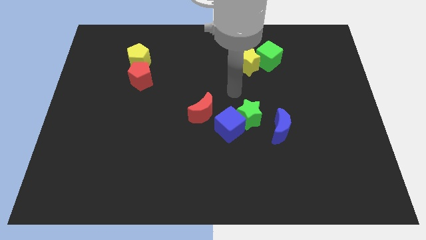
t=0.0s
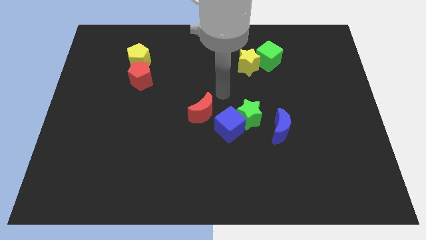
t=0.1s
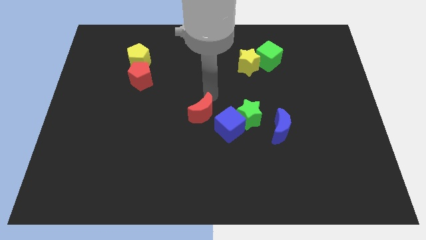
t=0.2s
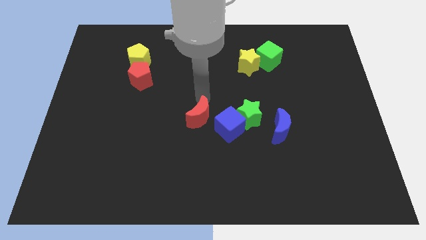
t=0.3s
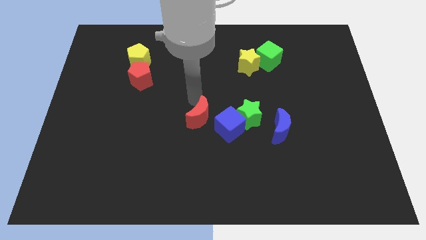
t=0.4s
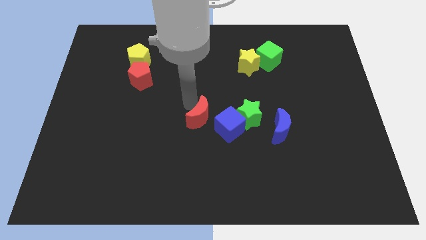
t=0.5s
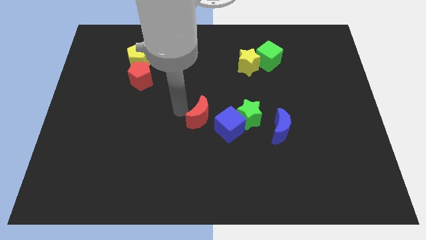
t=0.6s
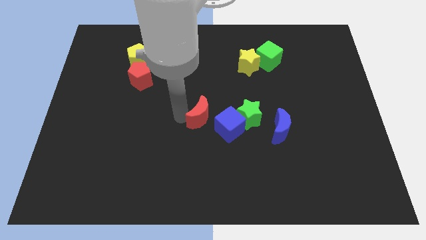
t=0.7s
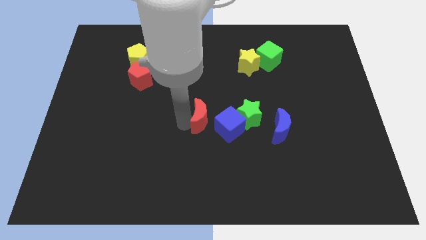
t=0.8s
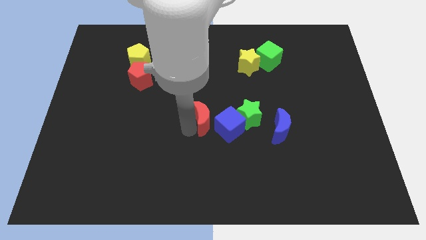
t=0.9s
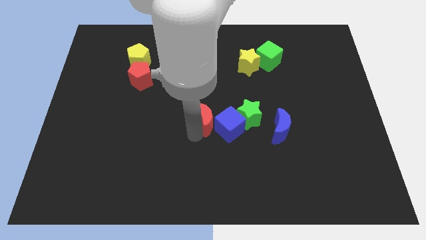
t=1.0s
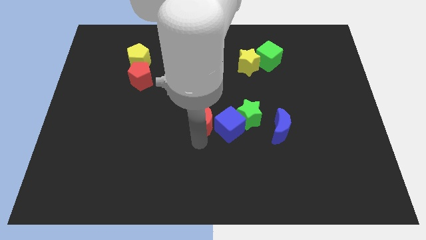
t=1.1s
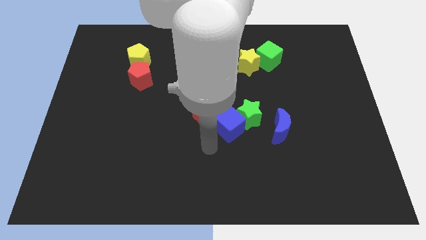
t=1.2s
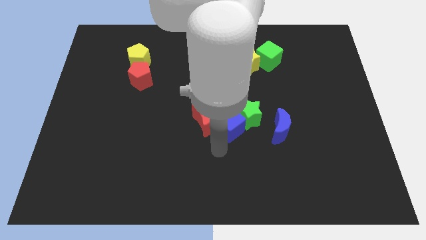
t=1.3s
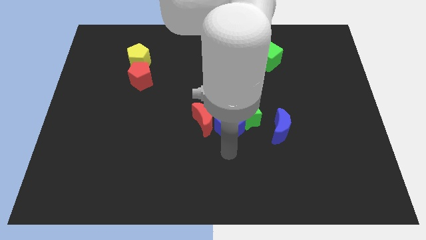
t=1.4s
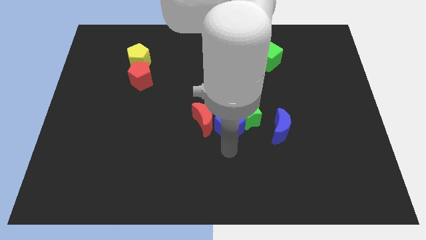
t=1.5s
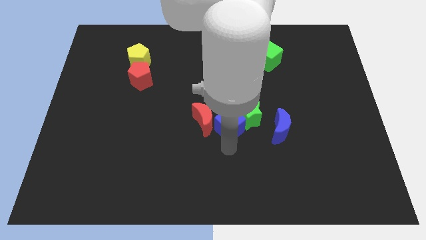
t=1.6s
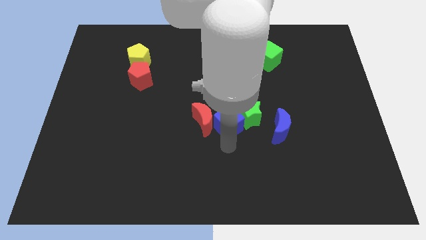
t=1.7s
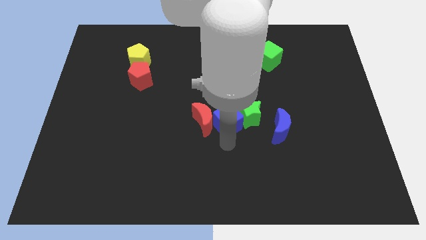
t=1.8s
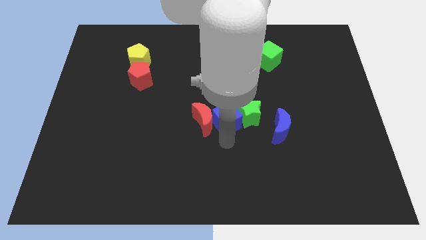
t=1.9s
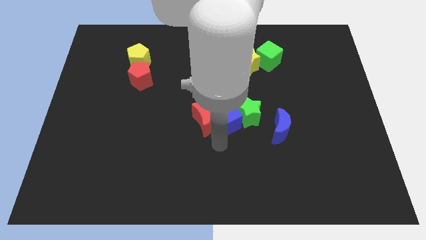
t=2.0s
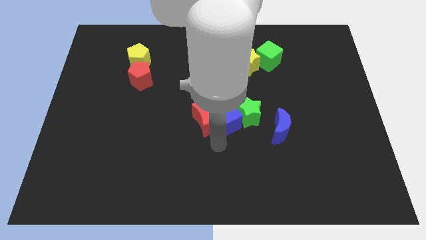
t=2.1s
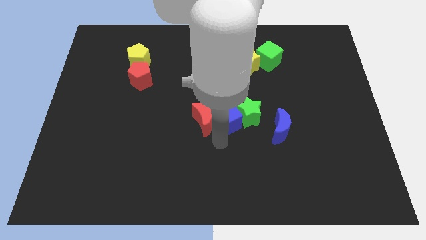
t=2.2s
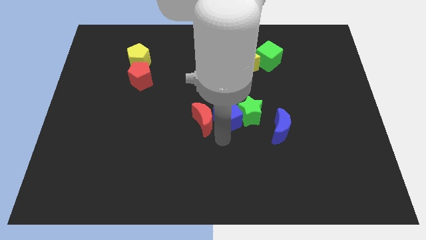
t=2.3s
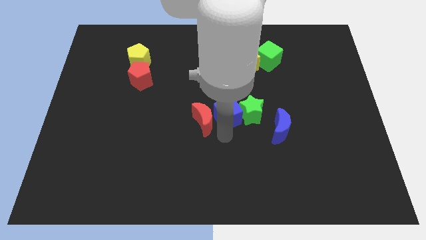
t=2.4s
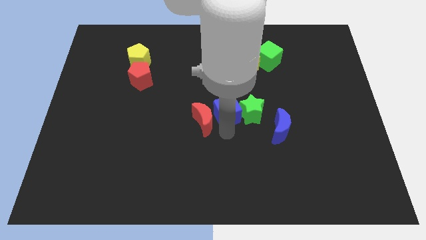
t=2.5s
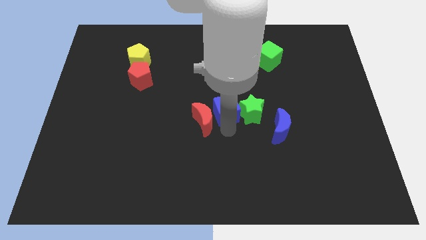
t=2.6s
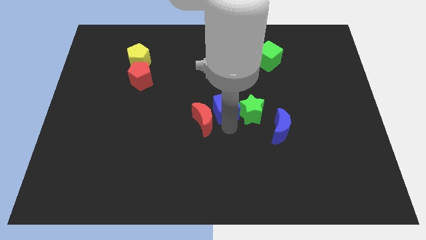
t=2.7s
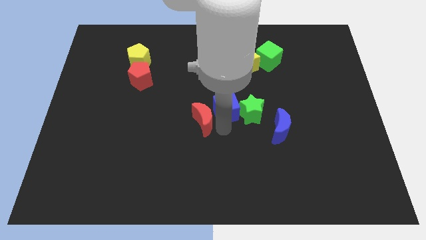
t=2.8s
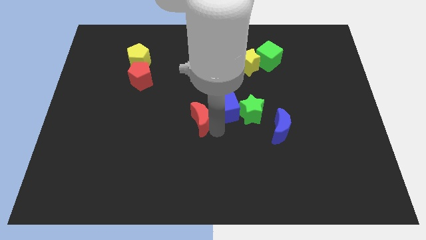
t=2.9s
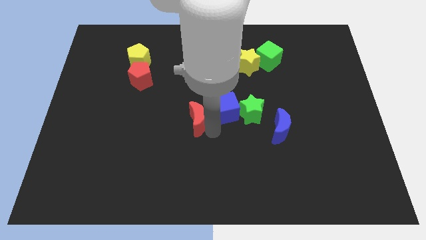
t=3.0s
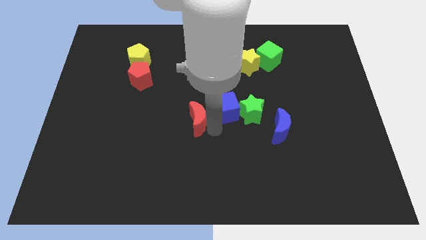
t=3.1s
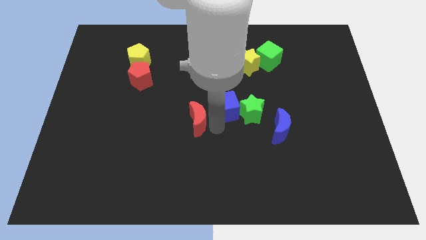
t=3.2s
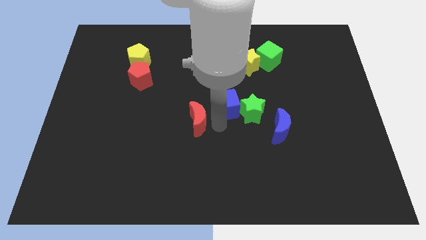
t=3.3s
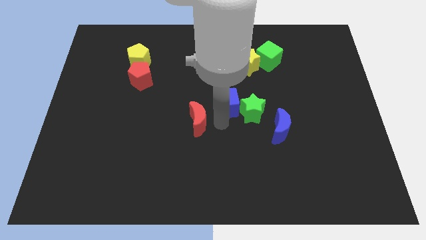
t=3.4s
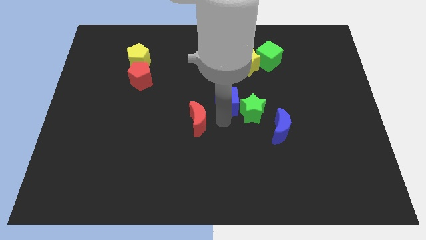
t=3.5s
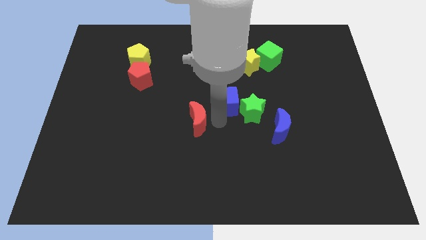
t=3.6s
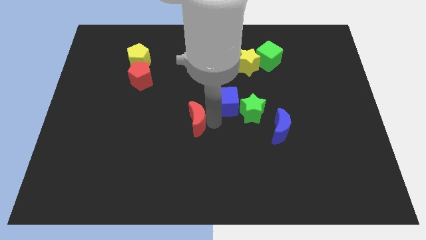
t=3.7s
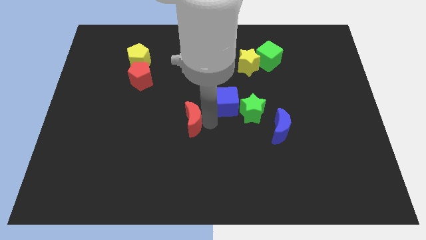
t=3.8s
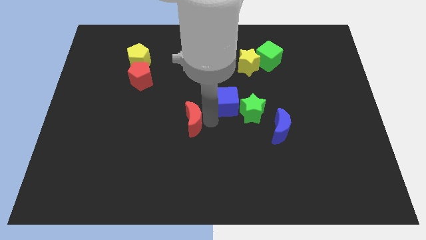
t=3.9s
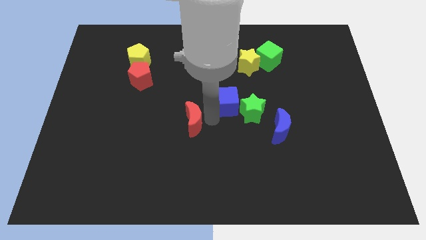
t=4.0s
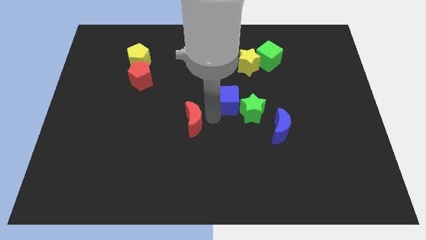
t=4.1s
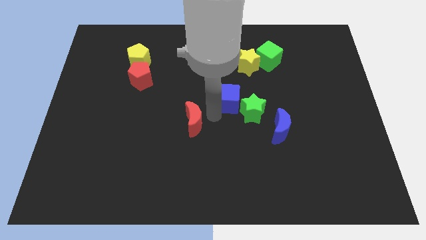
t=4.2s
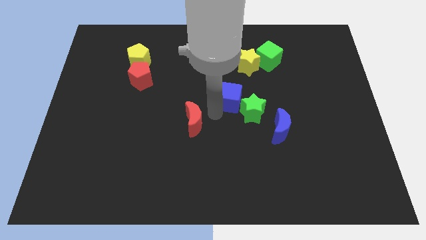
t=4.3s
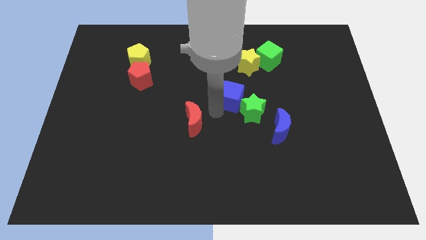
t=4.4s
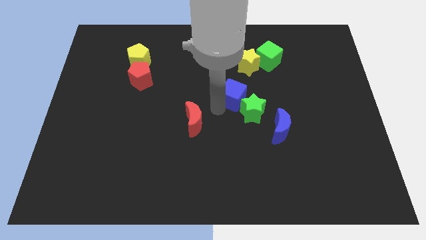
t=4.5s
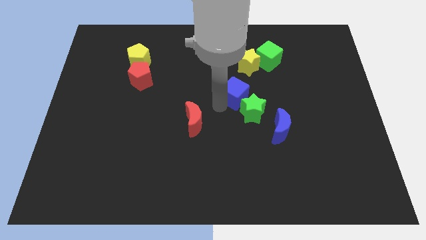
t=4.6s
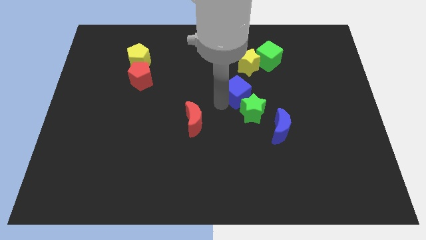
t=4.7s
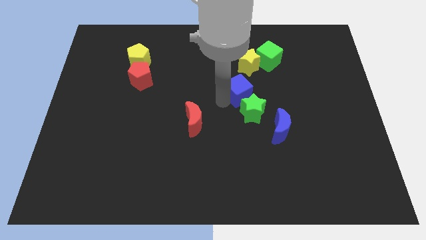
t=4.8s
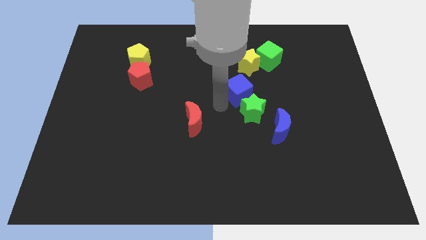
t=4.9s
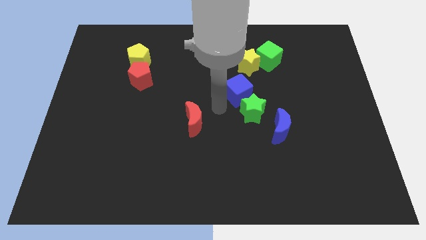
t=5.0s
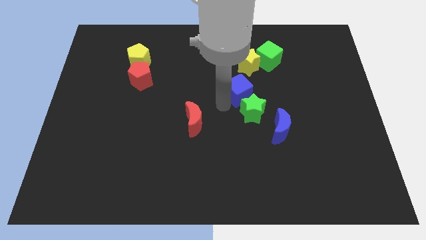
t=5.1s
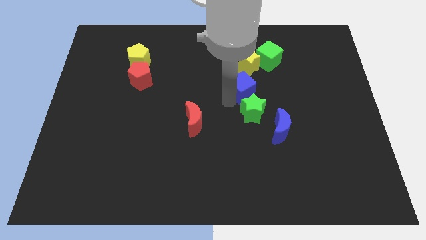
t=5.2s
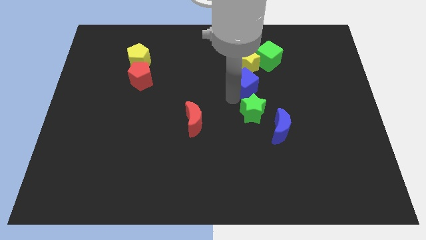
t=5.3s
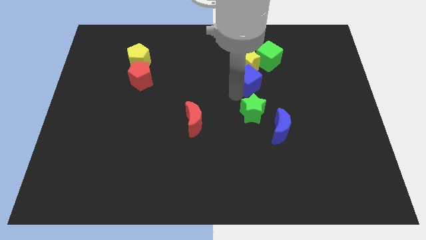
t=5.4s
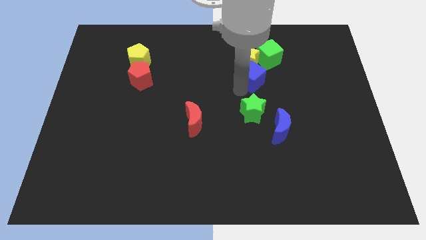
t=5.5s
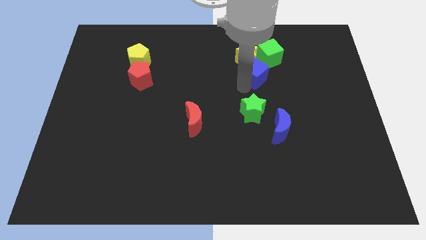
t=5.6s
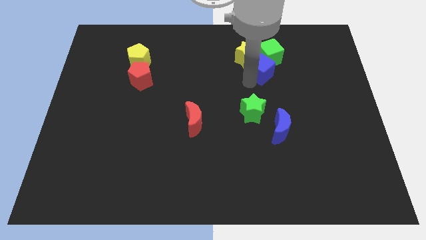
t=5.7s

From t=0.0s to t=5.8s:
slide the blue cube to the green cube

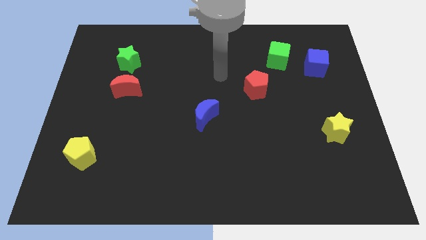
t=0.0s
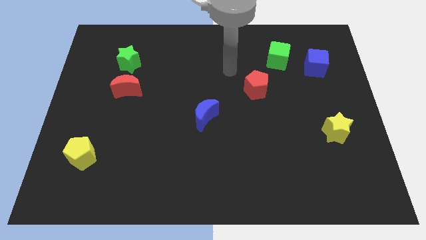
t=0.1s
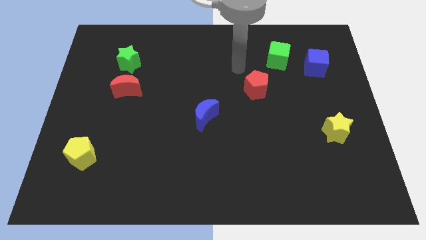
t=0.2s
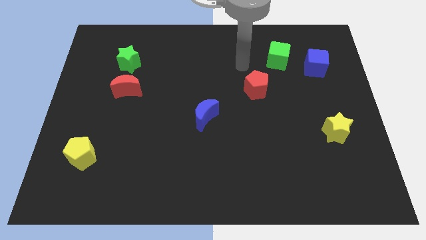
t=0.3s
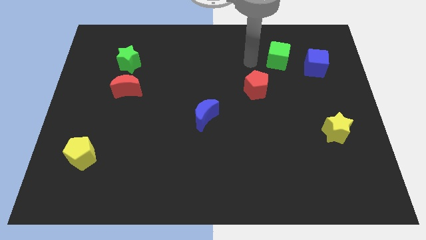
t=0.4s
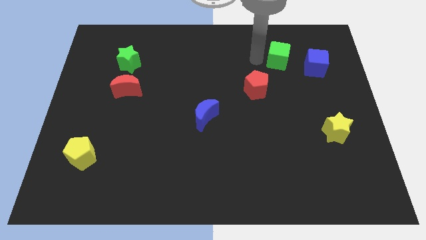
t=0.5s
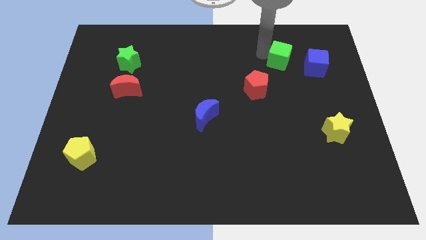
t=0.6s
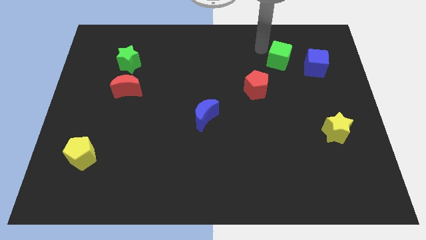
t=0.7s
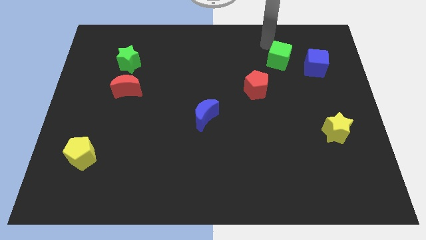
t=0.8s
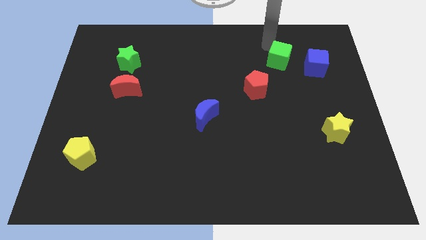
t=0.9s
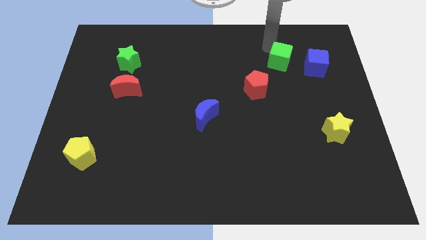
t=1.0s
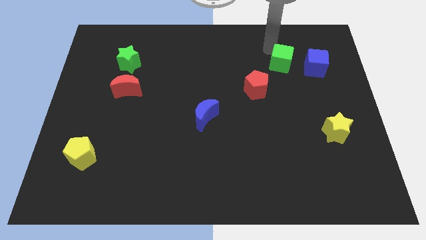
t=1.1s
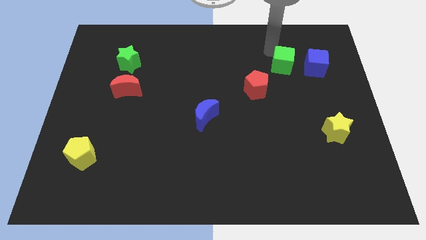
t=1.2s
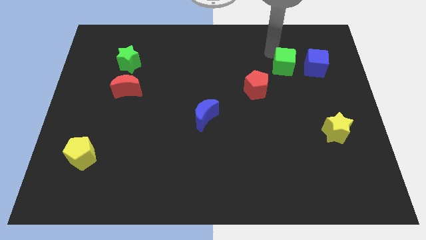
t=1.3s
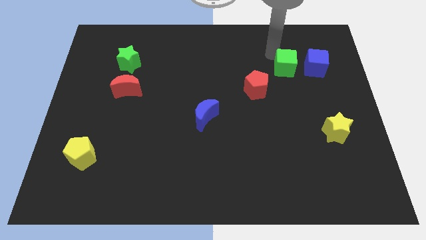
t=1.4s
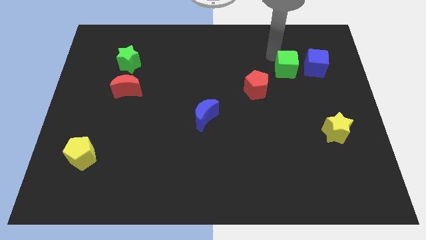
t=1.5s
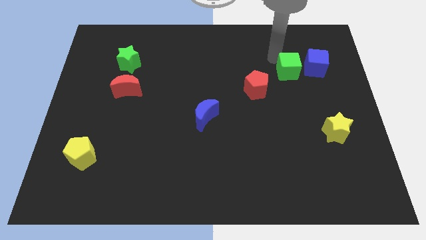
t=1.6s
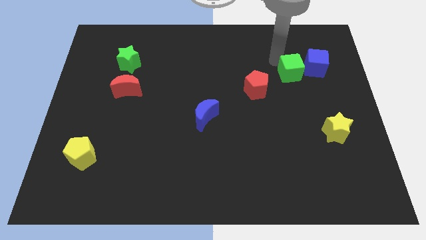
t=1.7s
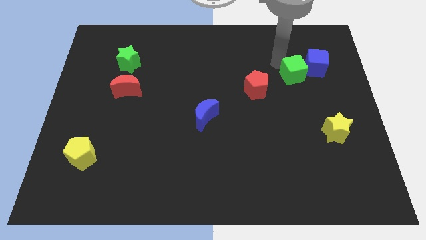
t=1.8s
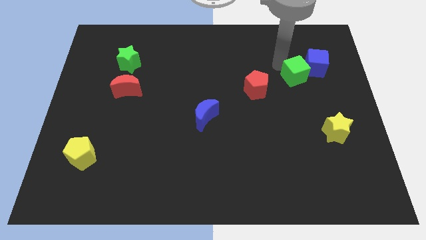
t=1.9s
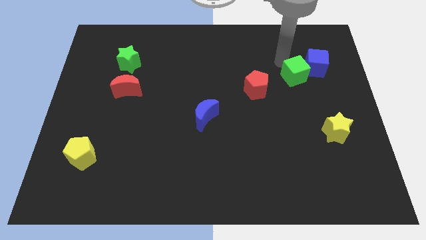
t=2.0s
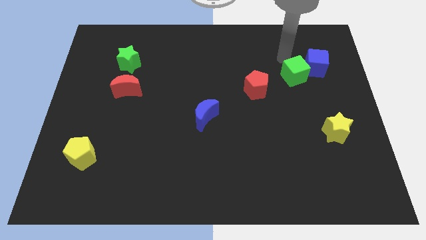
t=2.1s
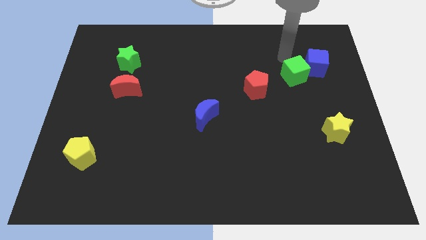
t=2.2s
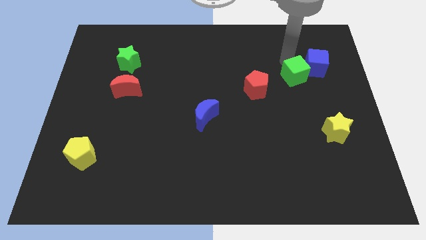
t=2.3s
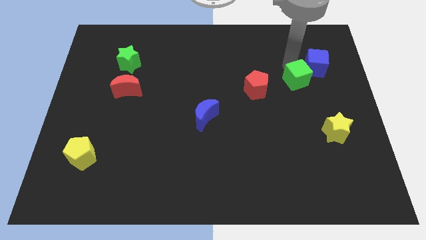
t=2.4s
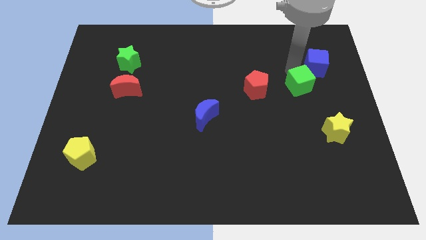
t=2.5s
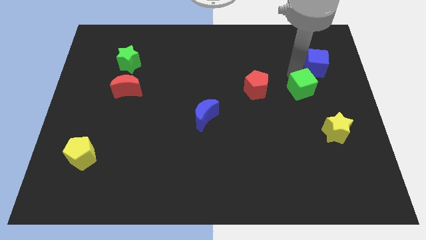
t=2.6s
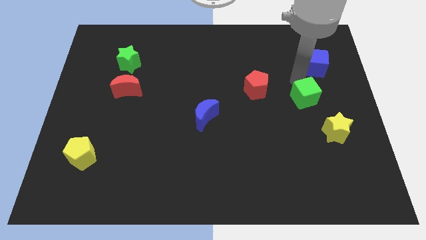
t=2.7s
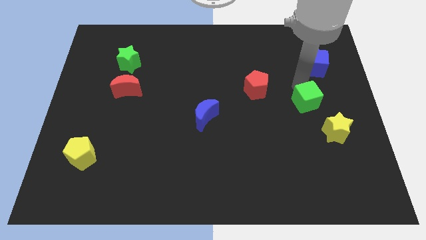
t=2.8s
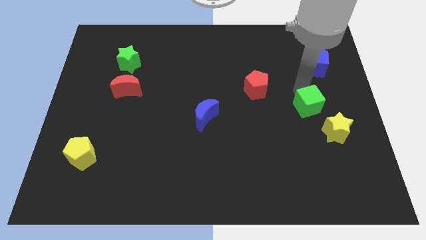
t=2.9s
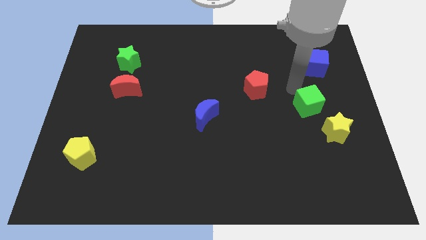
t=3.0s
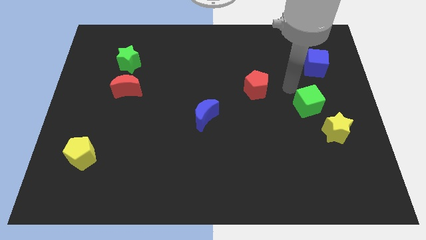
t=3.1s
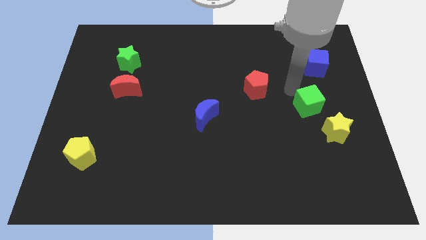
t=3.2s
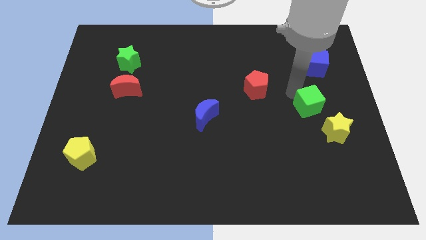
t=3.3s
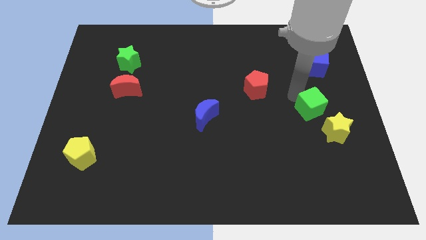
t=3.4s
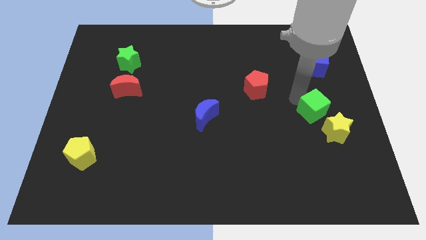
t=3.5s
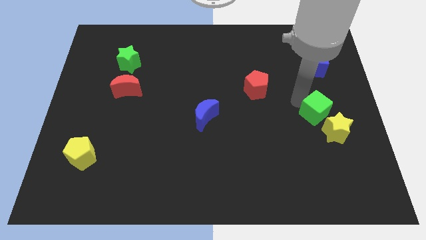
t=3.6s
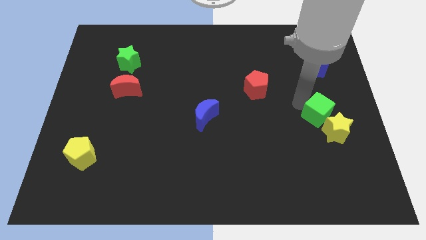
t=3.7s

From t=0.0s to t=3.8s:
slide the green cube to the yellow star
